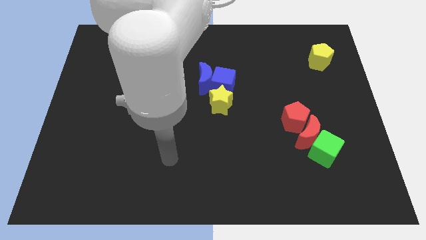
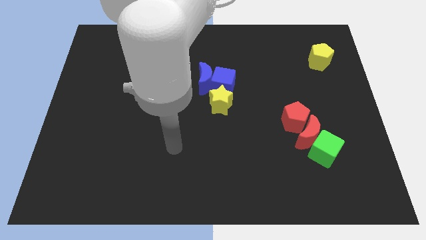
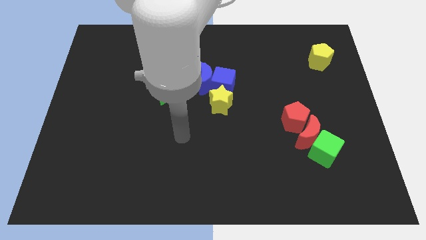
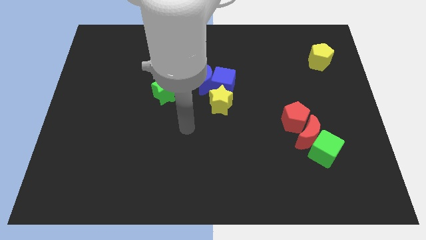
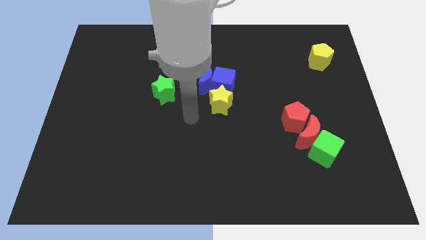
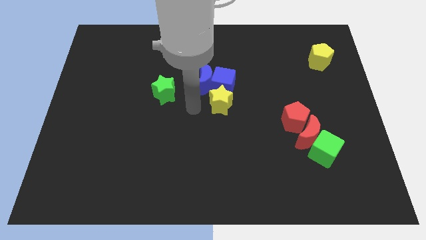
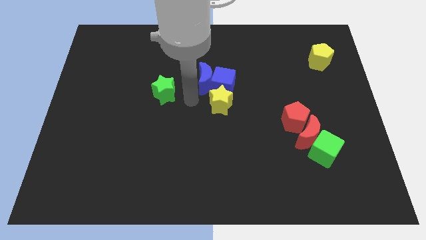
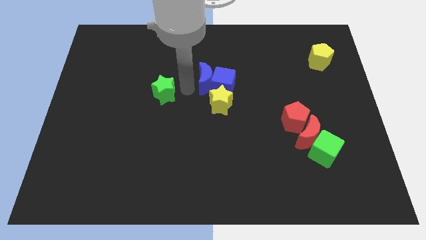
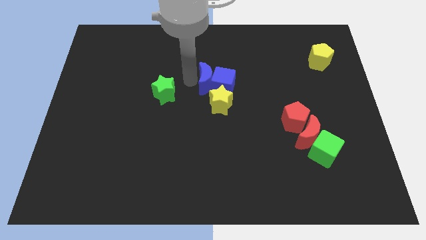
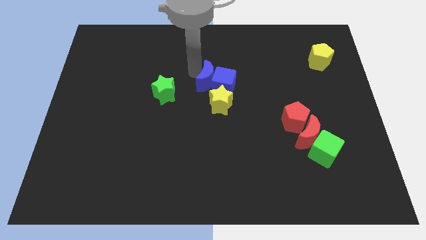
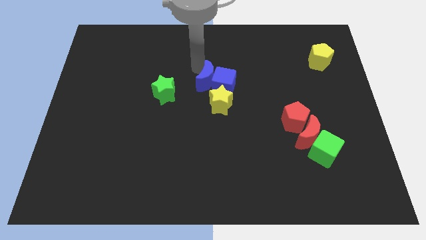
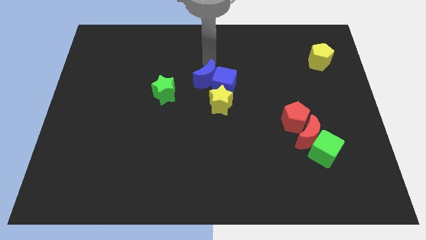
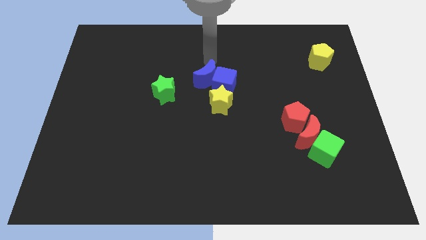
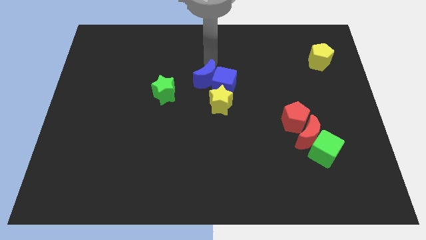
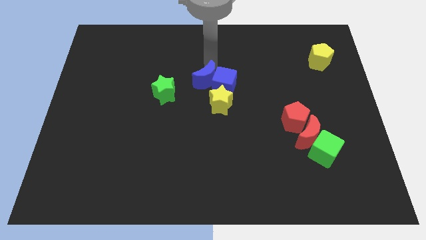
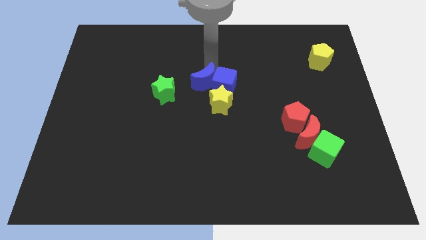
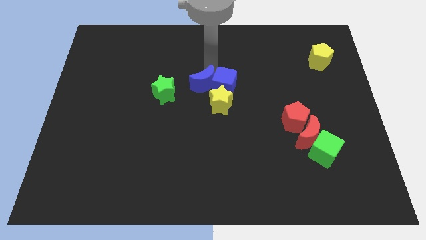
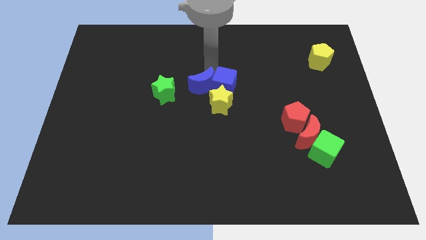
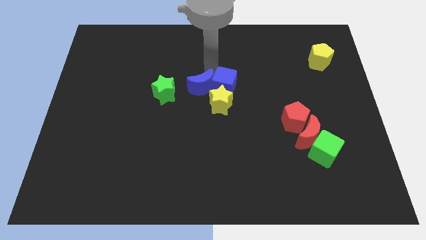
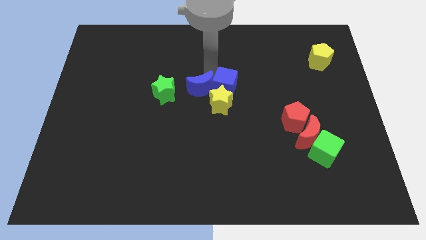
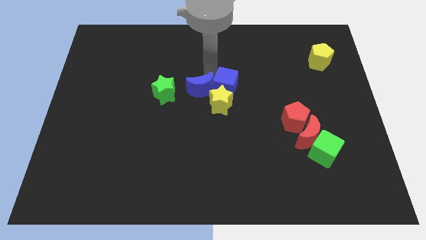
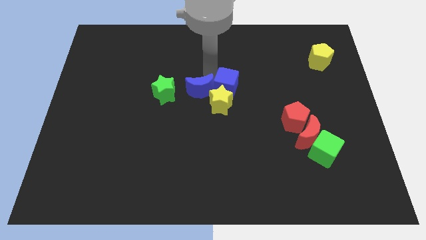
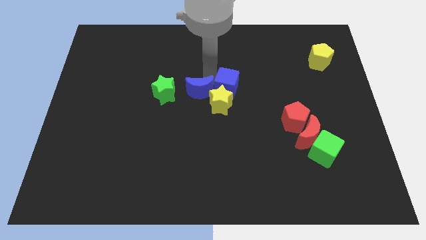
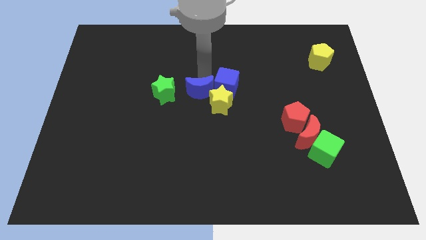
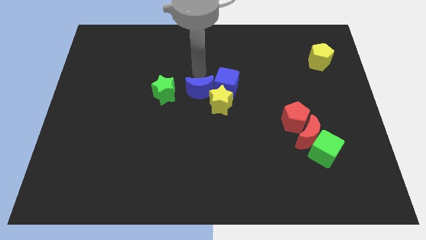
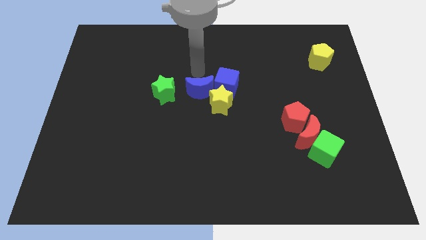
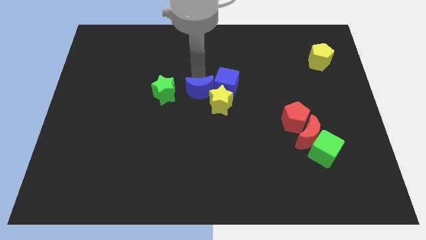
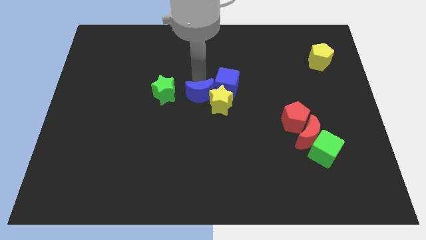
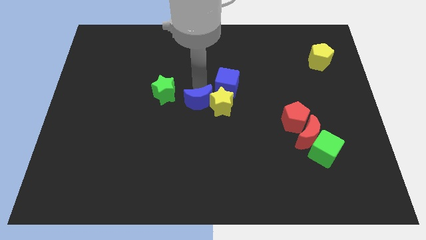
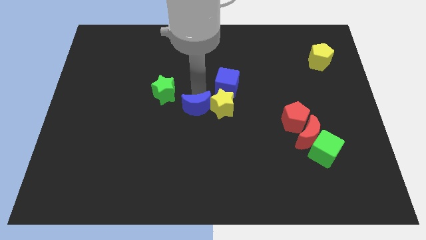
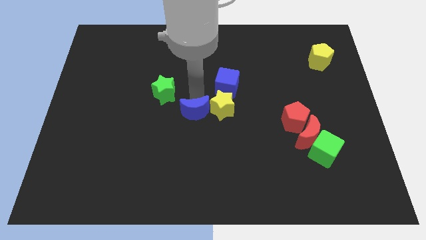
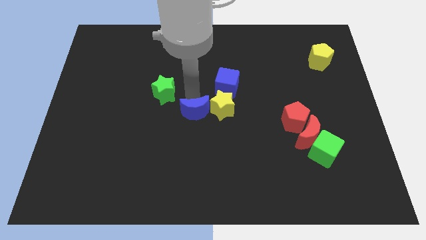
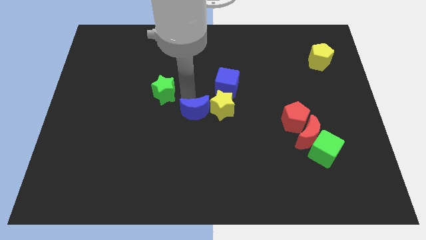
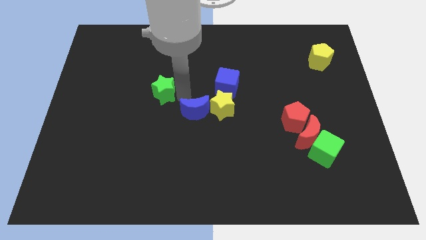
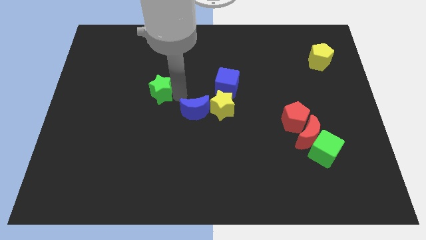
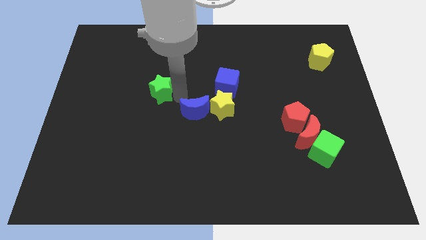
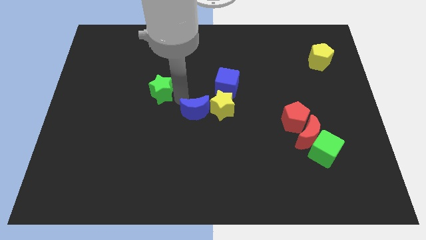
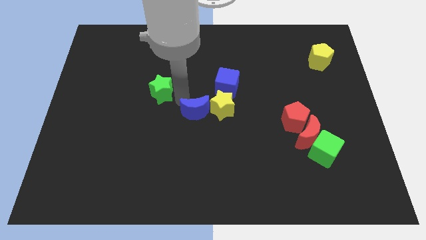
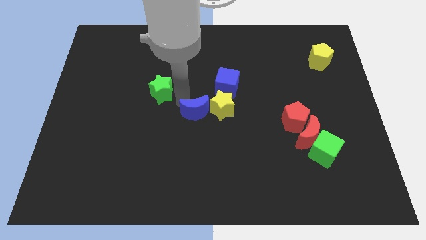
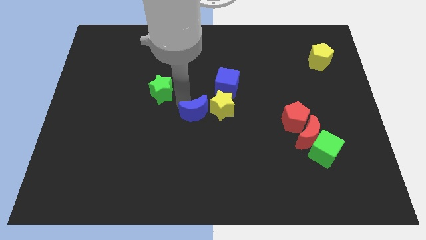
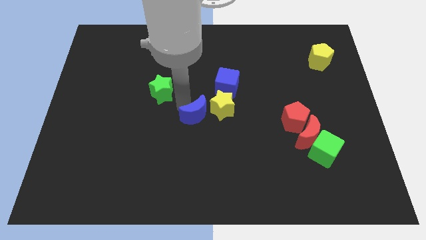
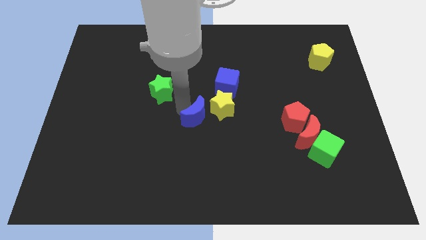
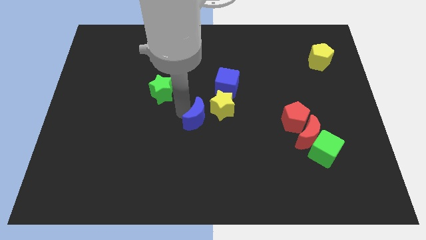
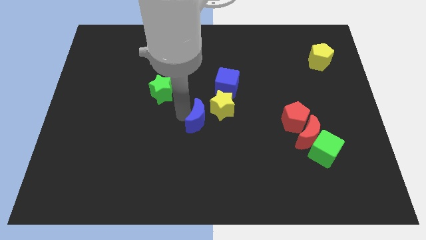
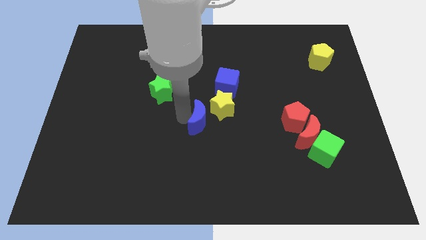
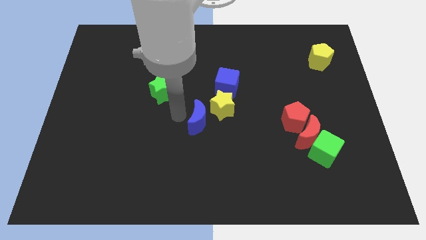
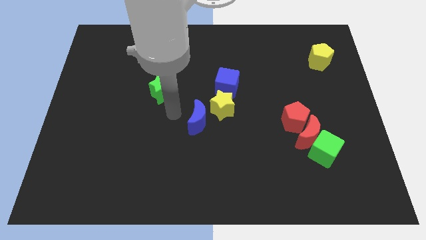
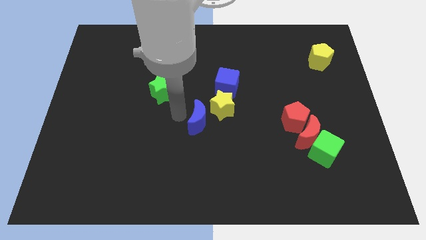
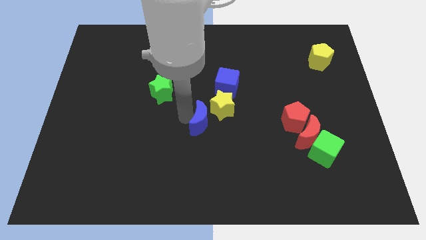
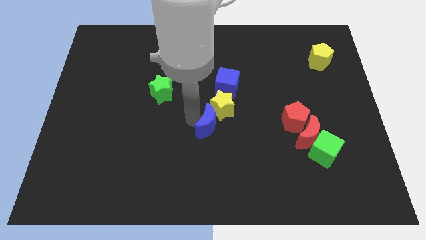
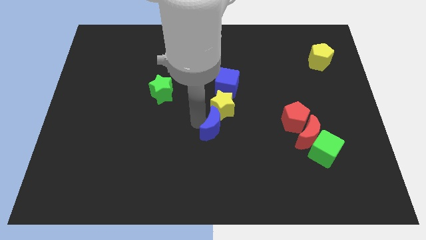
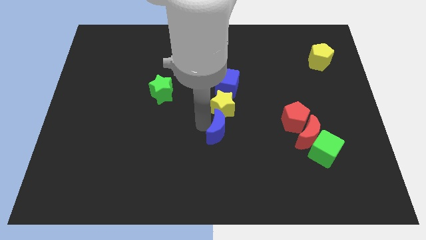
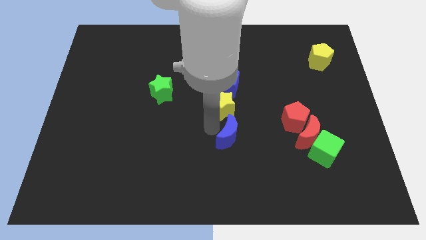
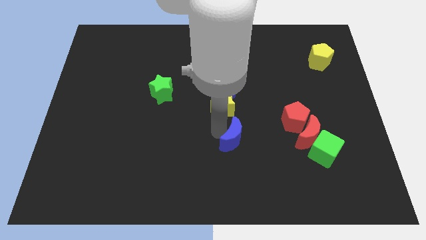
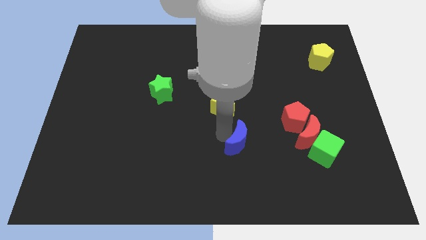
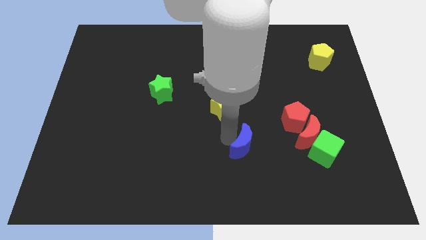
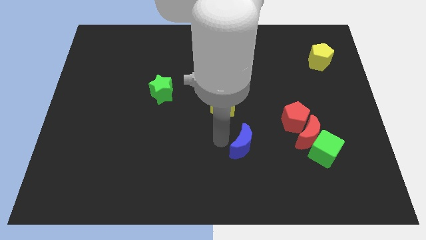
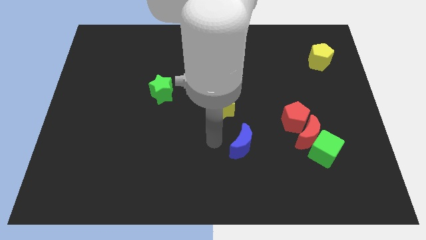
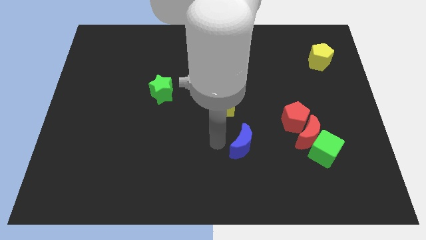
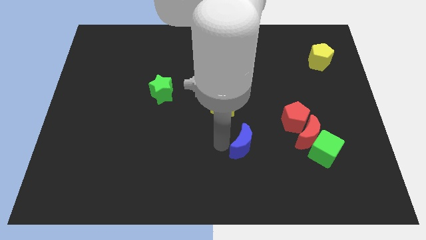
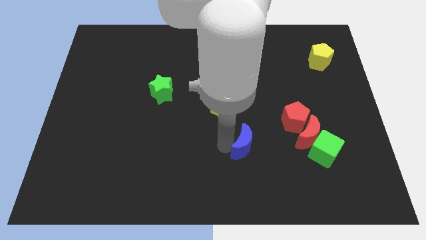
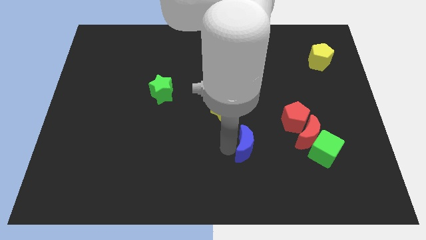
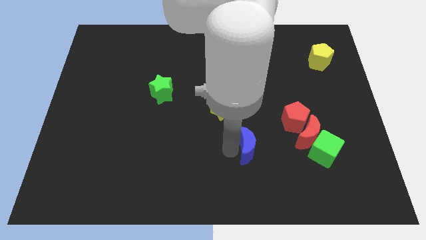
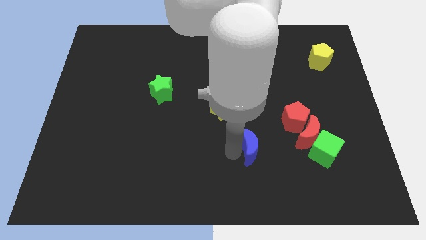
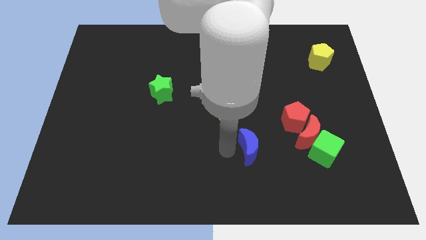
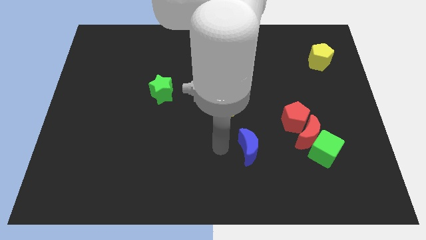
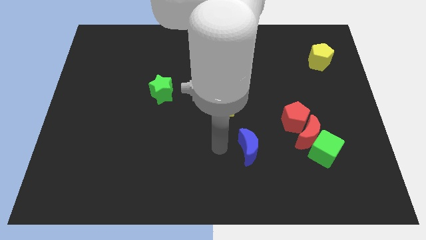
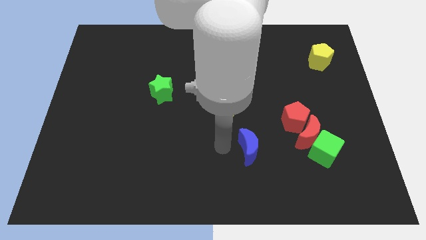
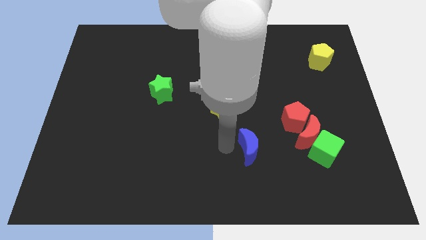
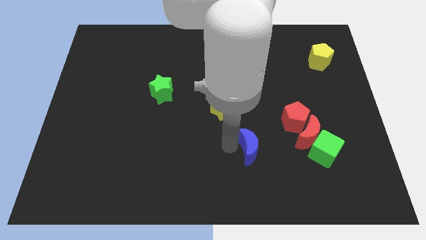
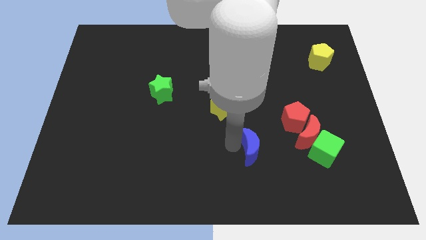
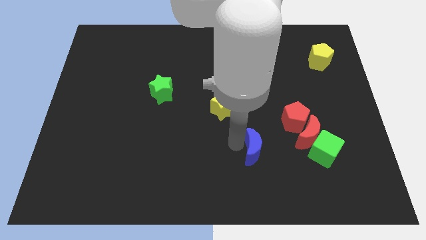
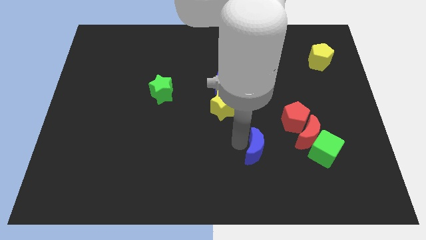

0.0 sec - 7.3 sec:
slide the blue moon down and then right

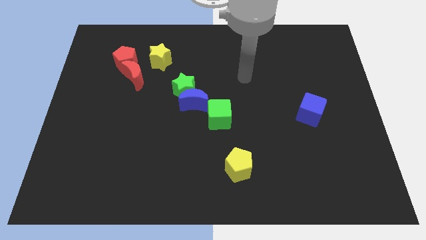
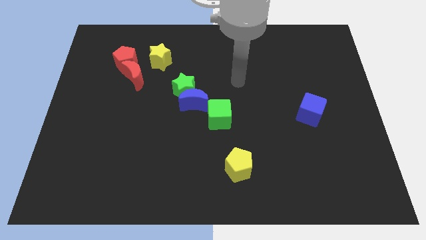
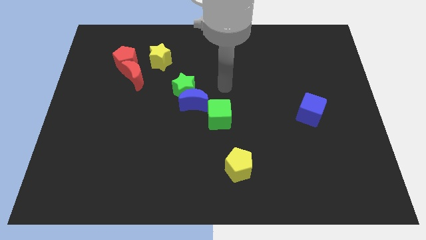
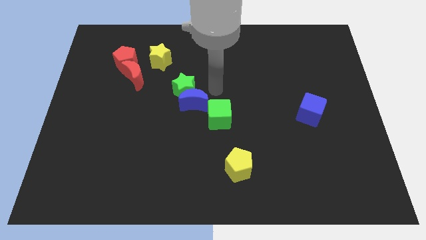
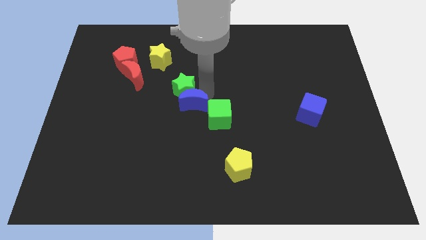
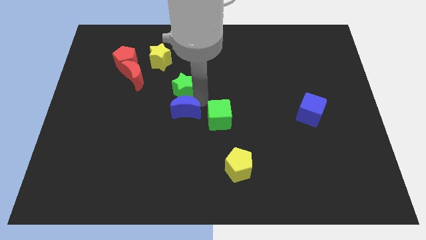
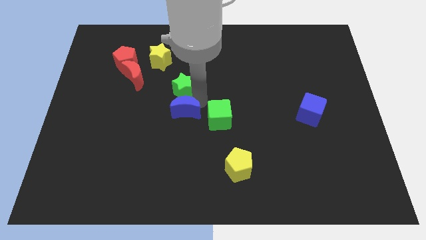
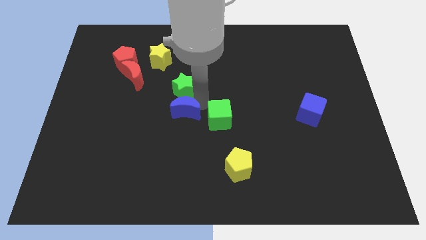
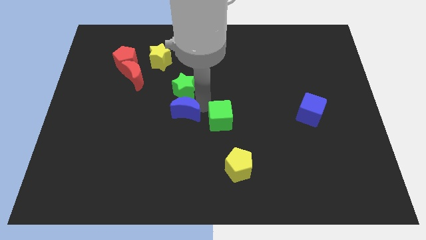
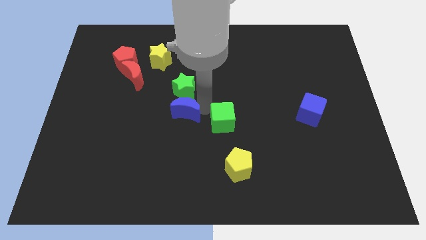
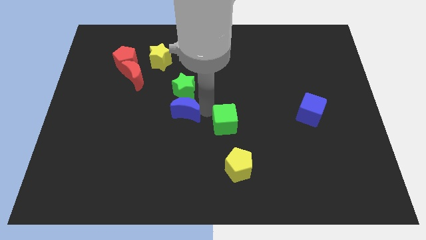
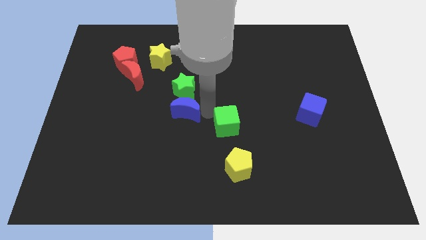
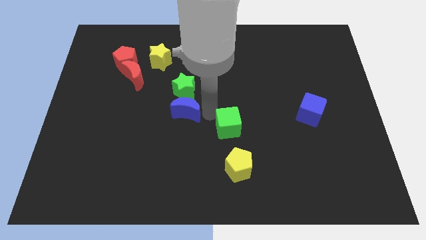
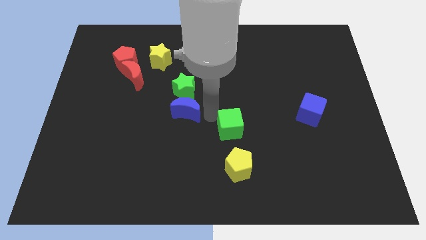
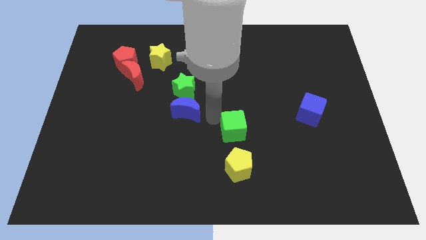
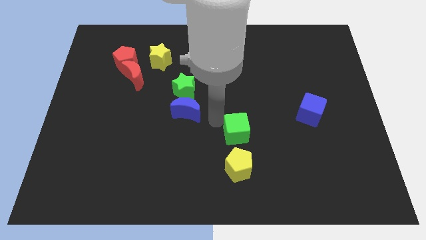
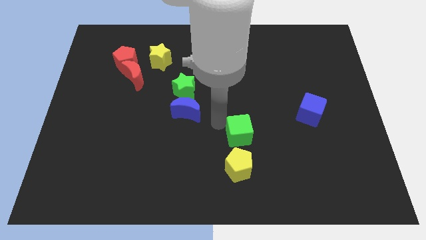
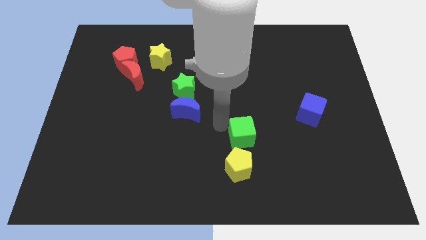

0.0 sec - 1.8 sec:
push the green cube downwards and to the right diagonally somewhat
